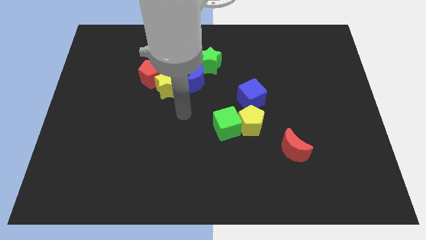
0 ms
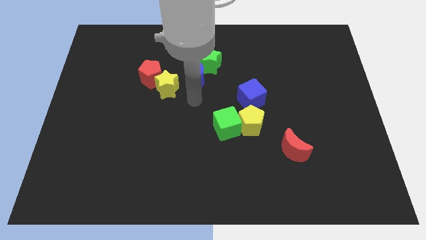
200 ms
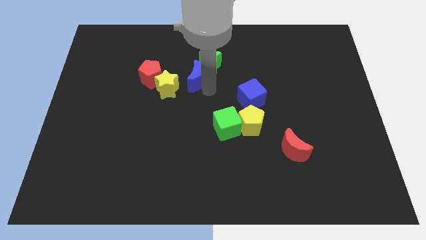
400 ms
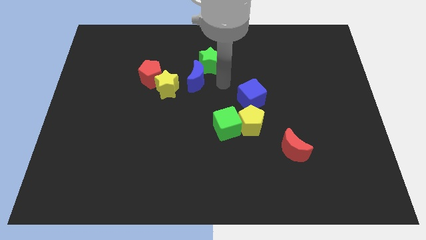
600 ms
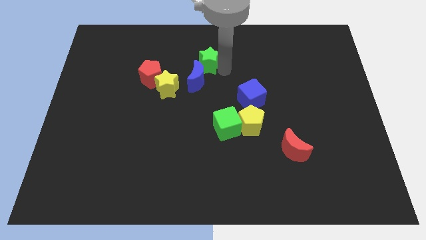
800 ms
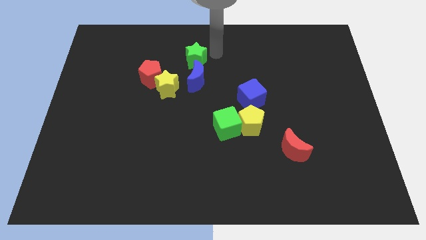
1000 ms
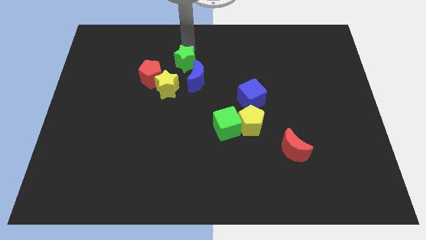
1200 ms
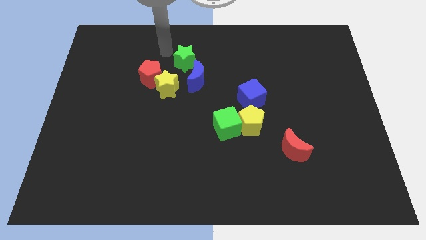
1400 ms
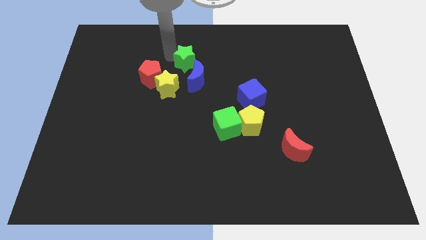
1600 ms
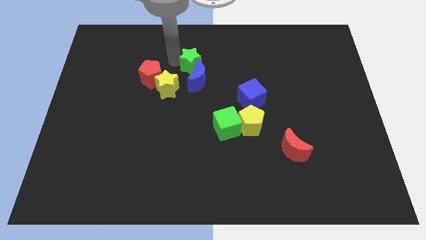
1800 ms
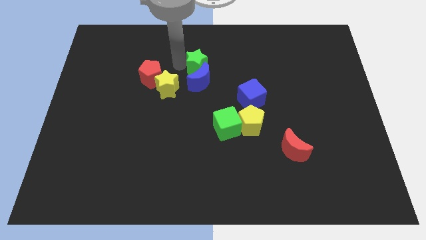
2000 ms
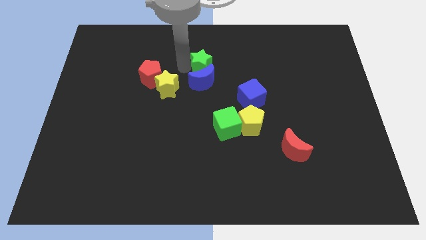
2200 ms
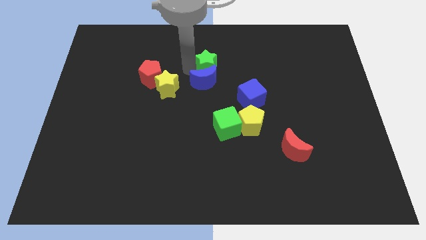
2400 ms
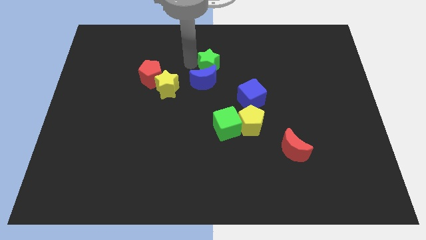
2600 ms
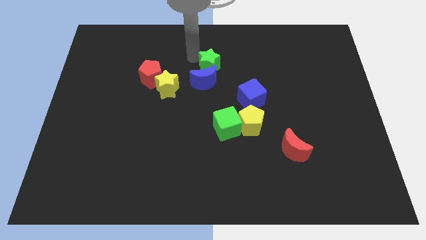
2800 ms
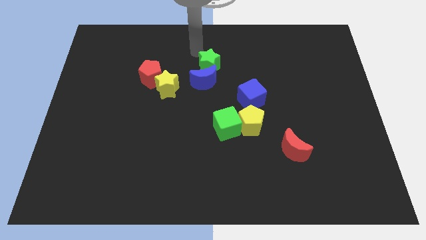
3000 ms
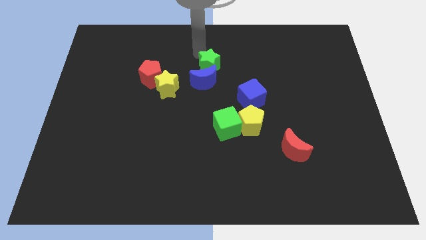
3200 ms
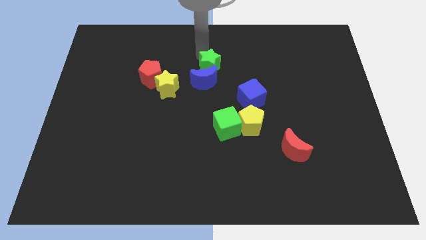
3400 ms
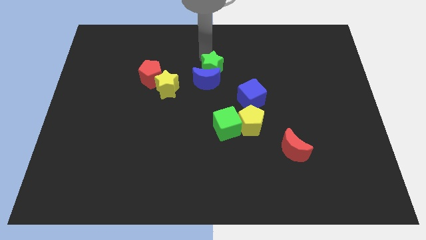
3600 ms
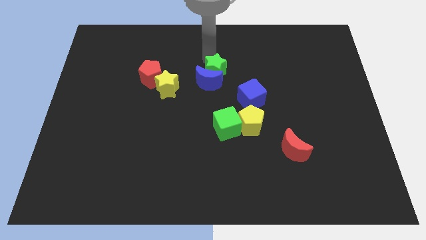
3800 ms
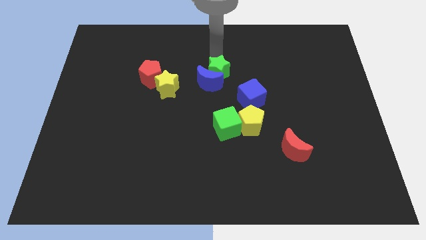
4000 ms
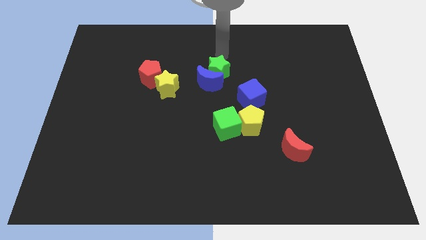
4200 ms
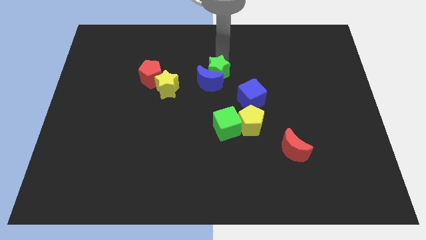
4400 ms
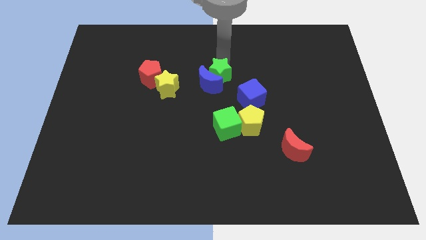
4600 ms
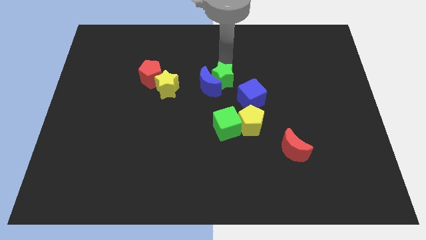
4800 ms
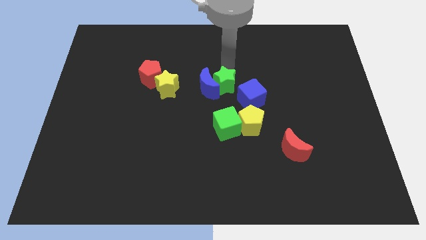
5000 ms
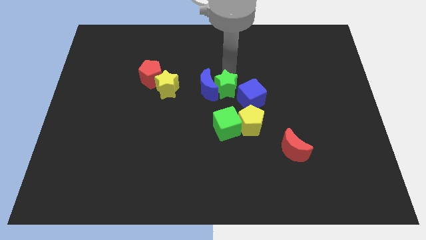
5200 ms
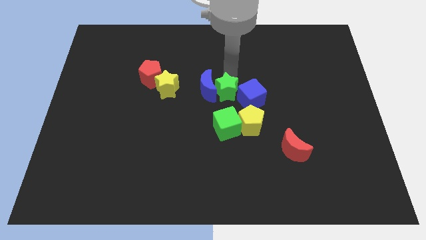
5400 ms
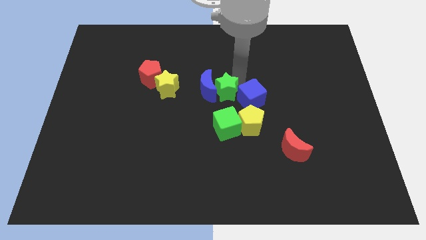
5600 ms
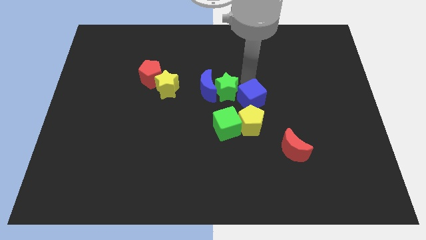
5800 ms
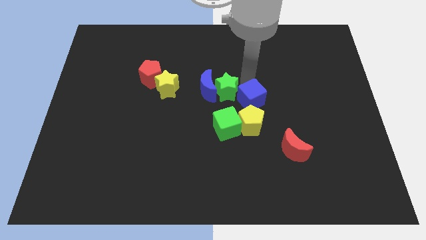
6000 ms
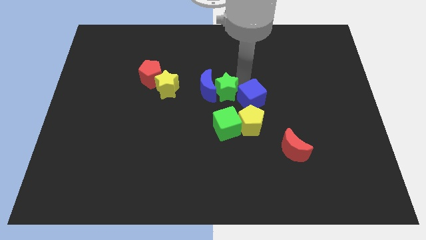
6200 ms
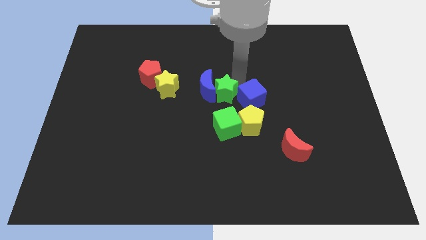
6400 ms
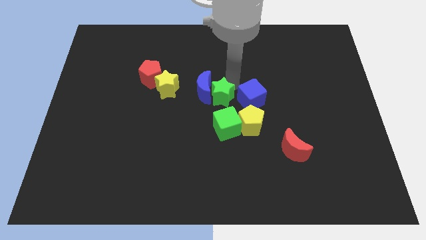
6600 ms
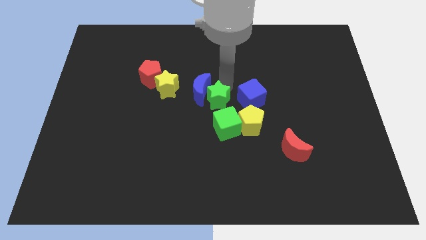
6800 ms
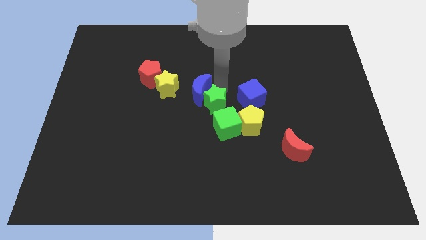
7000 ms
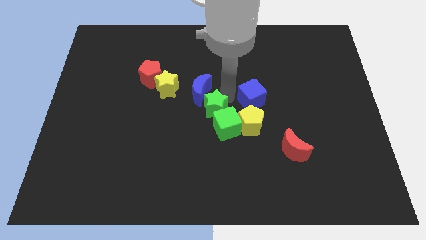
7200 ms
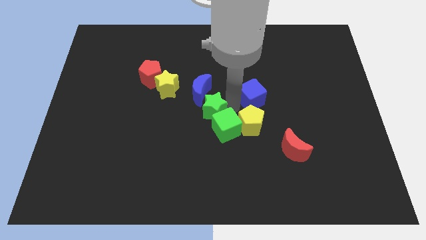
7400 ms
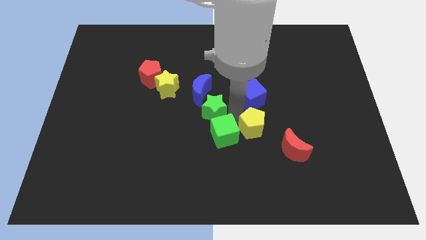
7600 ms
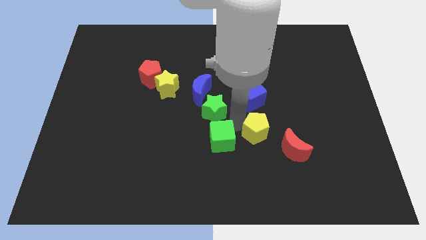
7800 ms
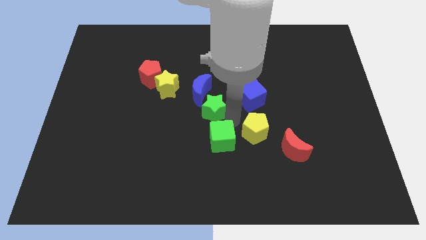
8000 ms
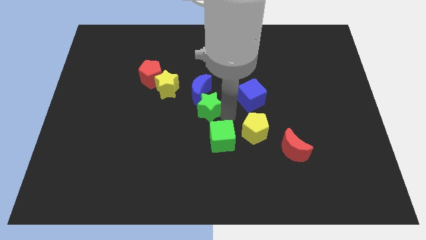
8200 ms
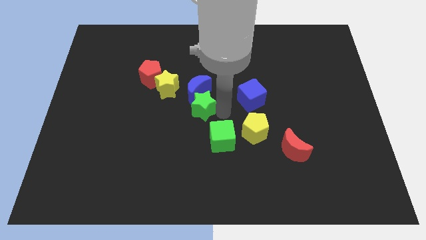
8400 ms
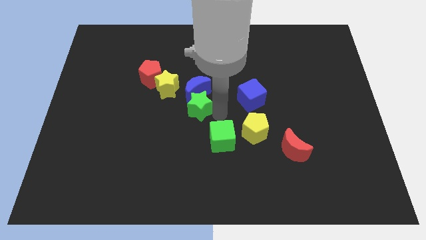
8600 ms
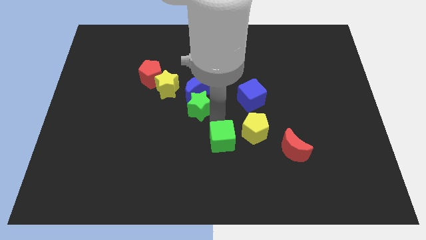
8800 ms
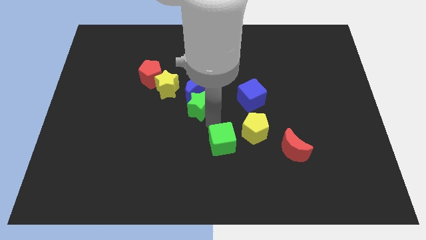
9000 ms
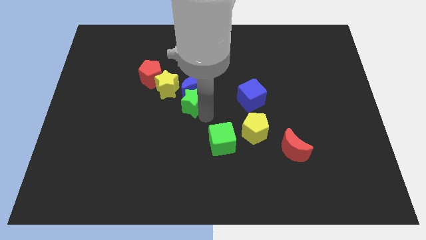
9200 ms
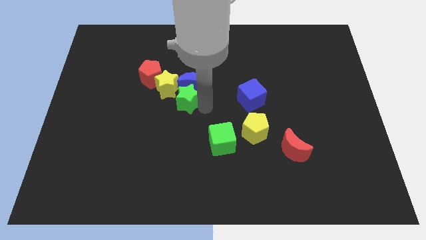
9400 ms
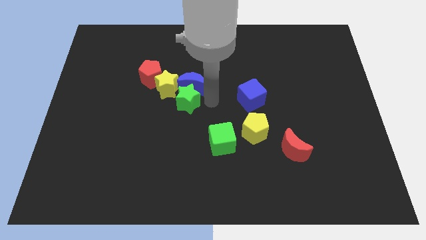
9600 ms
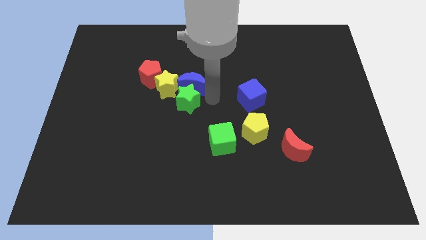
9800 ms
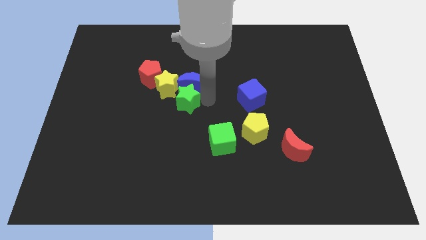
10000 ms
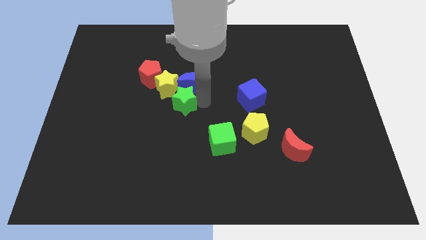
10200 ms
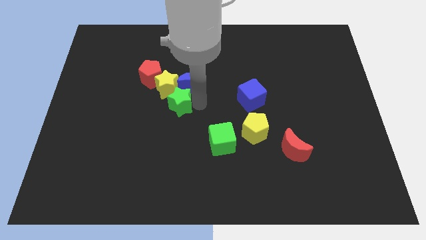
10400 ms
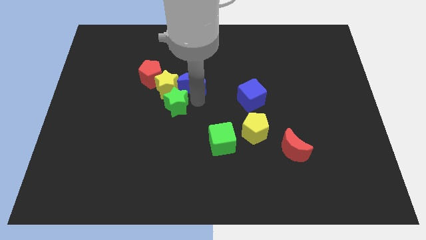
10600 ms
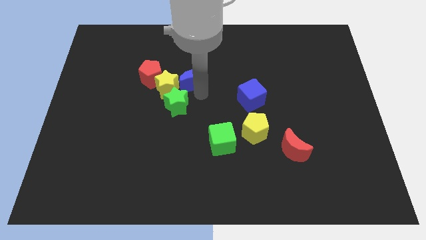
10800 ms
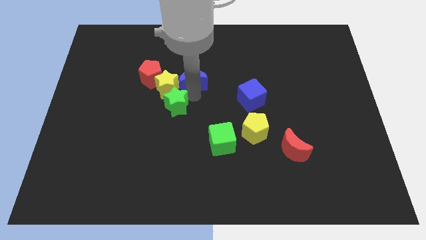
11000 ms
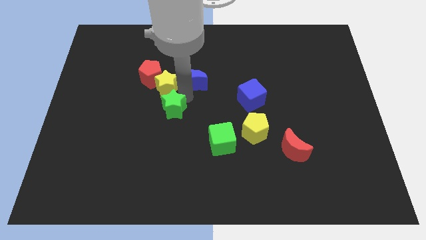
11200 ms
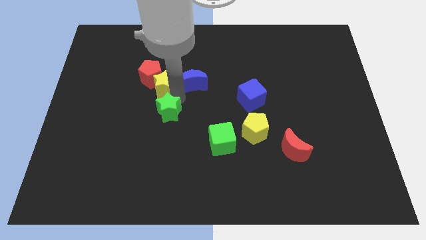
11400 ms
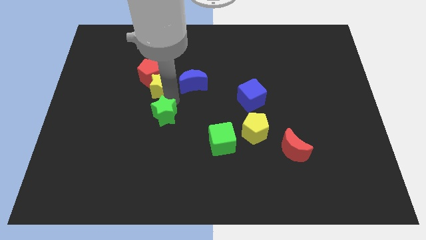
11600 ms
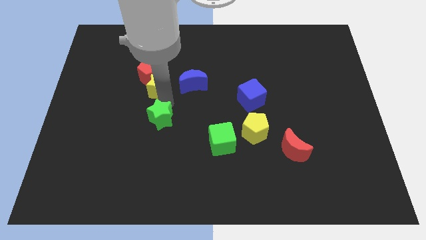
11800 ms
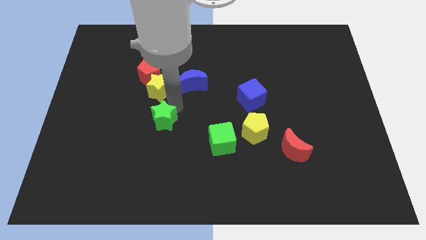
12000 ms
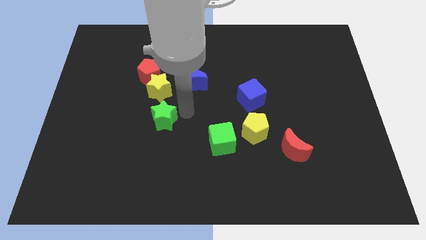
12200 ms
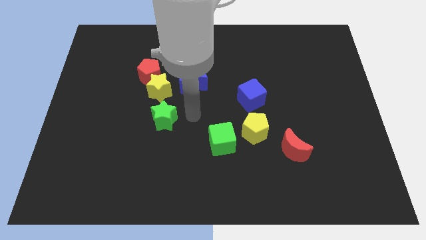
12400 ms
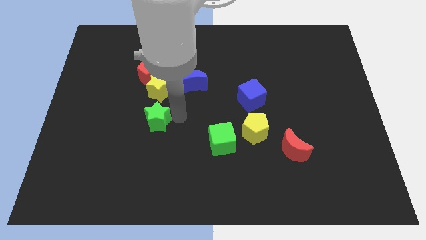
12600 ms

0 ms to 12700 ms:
push the green star downwards and then to the left

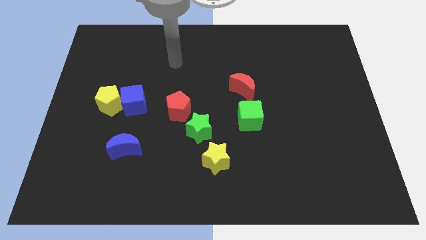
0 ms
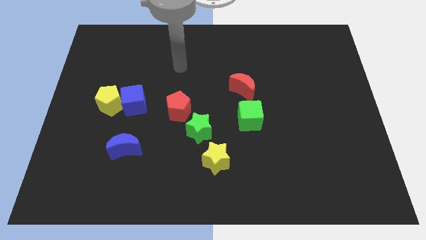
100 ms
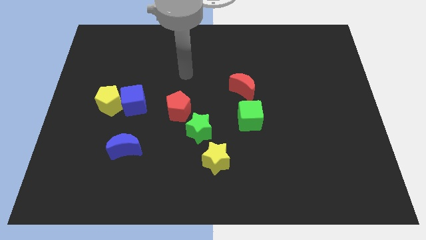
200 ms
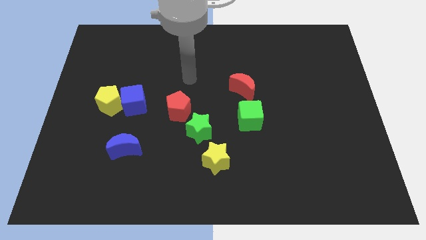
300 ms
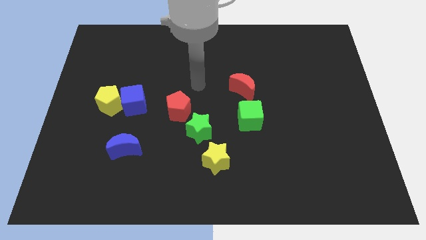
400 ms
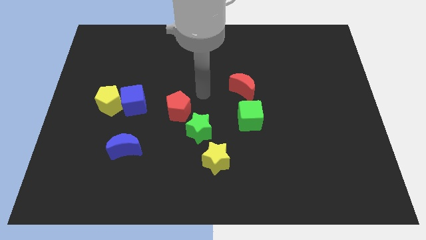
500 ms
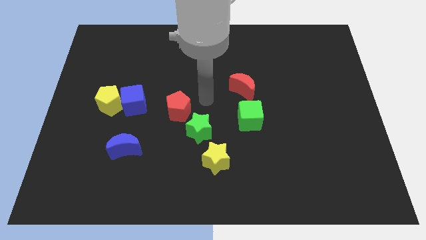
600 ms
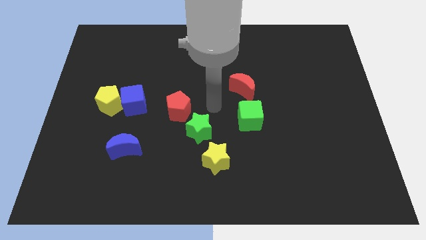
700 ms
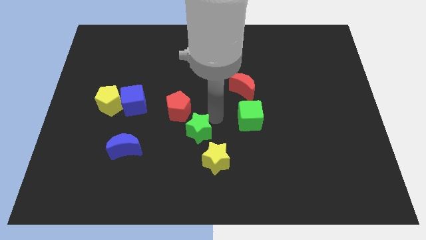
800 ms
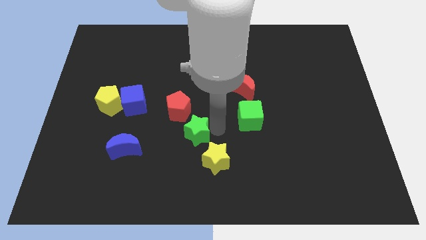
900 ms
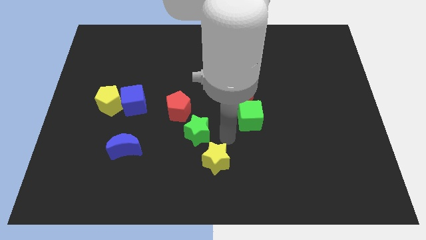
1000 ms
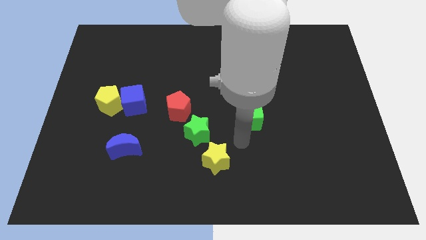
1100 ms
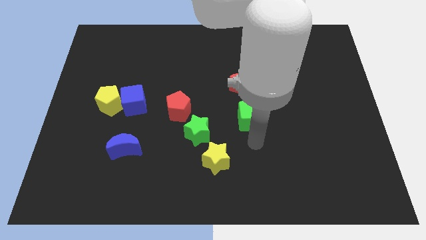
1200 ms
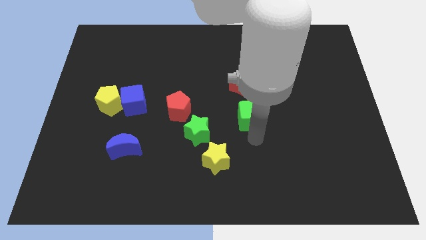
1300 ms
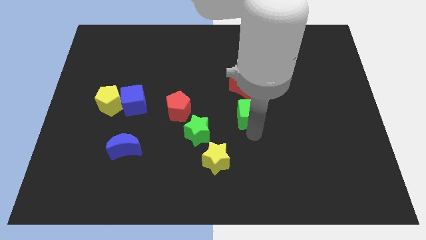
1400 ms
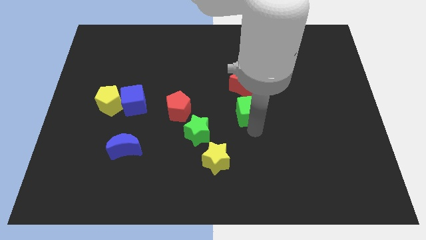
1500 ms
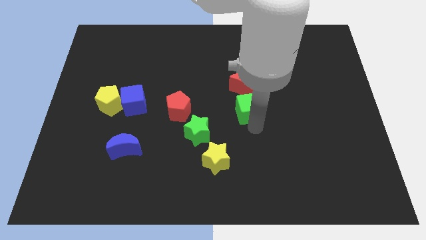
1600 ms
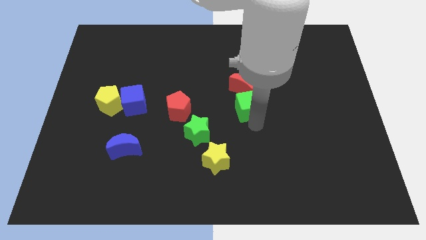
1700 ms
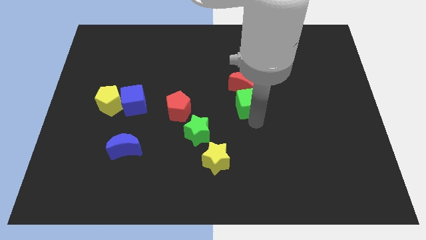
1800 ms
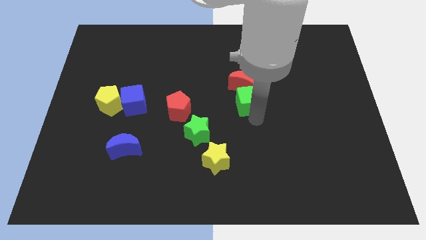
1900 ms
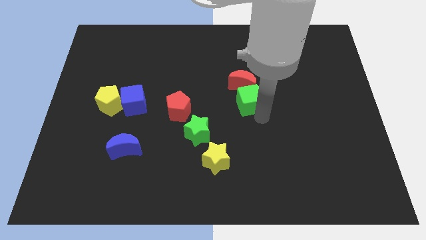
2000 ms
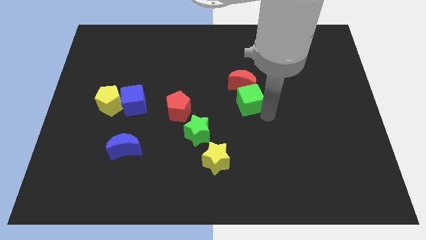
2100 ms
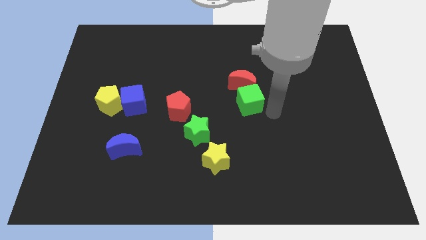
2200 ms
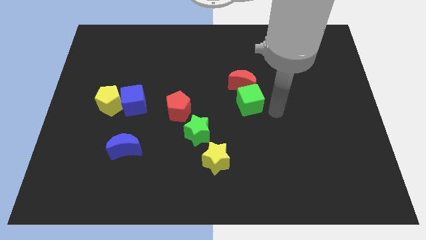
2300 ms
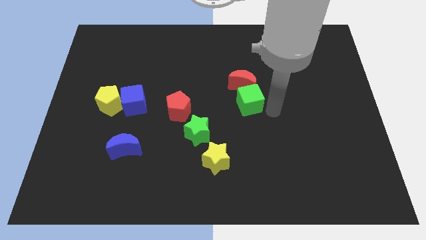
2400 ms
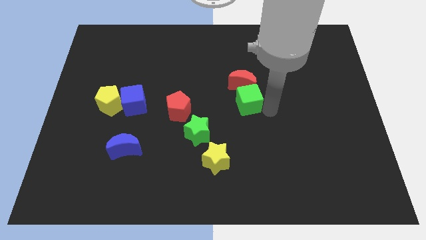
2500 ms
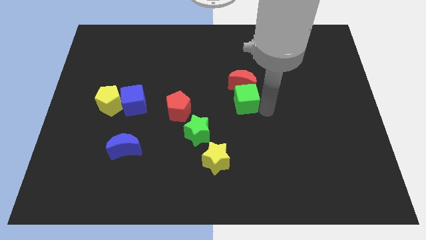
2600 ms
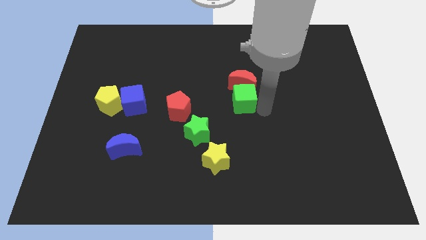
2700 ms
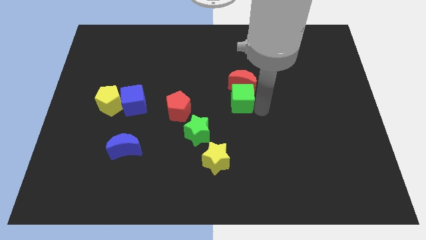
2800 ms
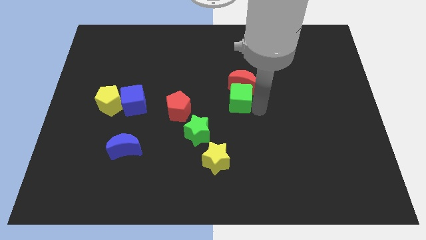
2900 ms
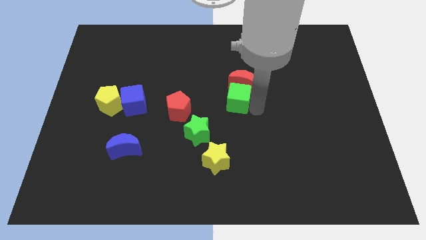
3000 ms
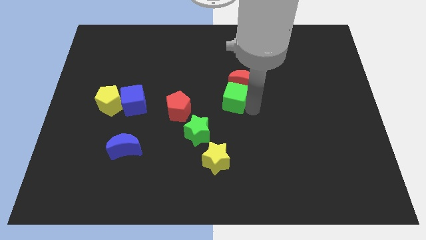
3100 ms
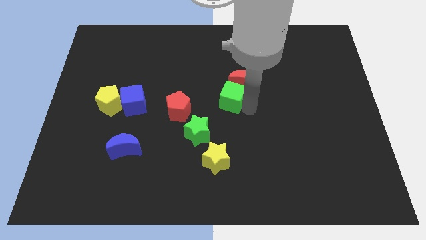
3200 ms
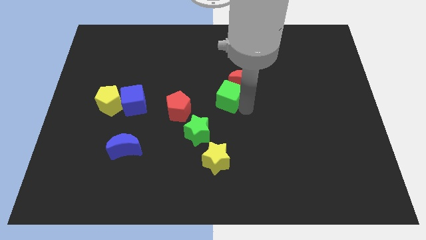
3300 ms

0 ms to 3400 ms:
slide the green cube up and then left a little bit
